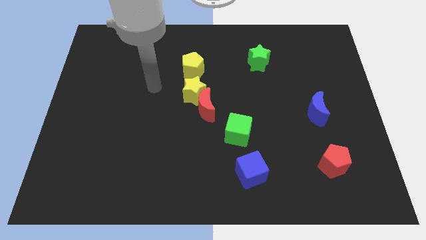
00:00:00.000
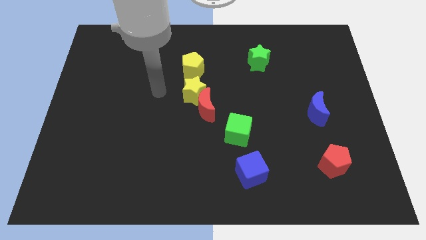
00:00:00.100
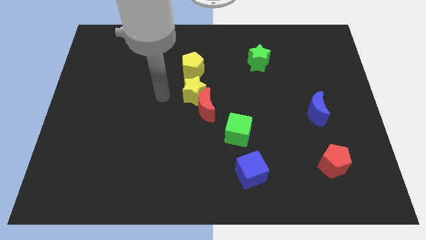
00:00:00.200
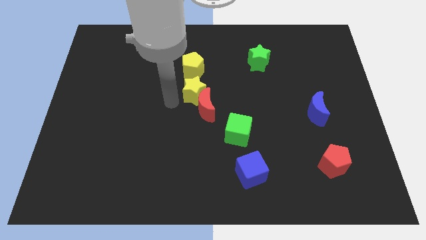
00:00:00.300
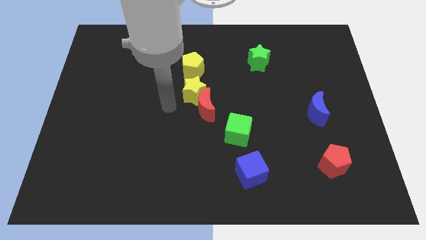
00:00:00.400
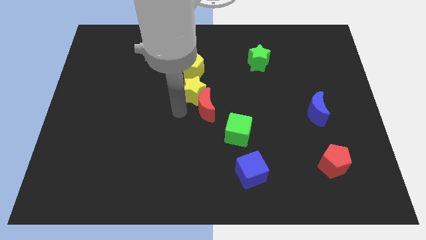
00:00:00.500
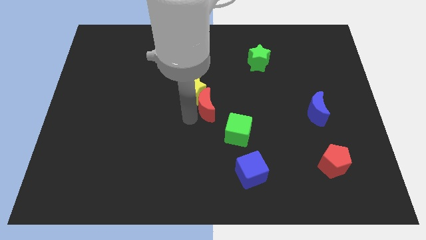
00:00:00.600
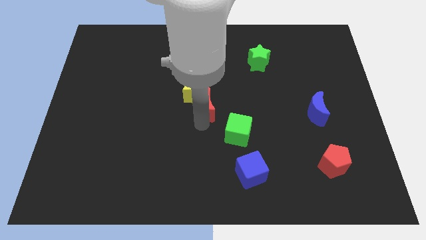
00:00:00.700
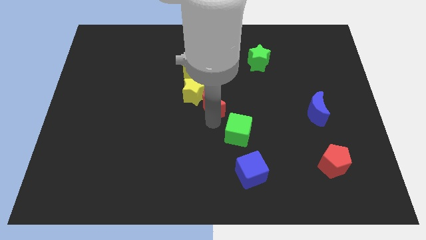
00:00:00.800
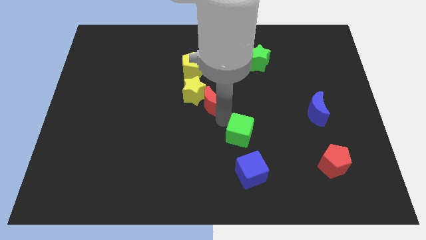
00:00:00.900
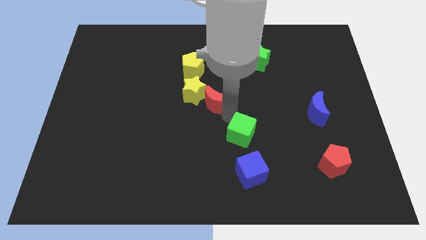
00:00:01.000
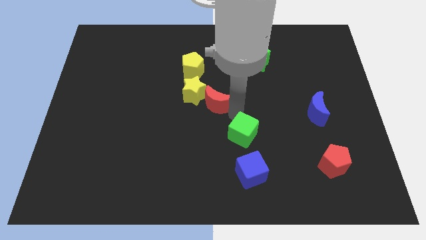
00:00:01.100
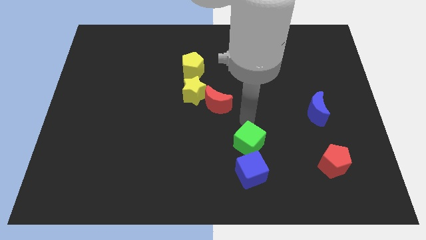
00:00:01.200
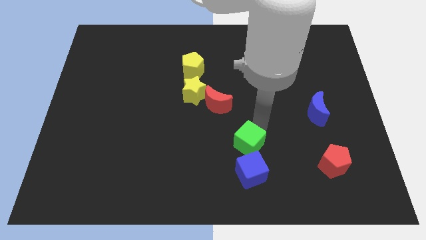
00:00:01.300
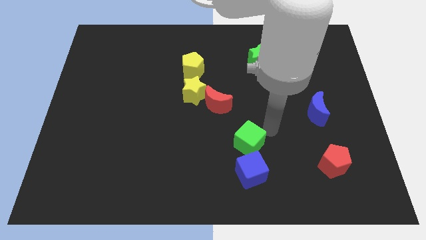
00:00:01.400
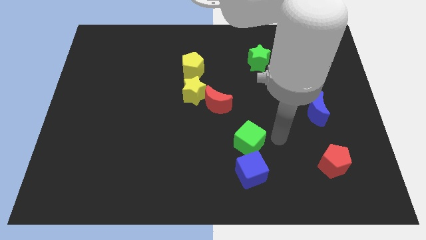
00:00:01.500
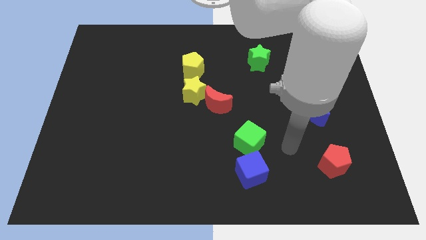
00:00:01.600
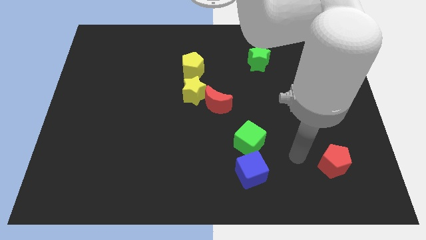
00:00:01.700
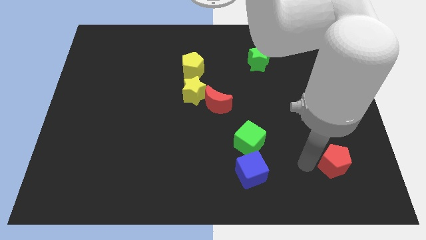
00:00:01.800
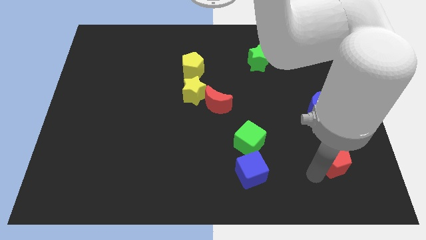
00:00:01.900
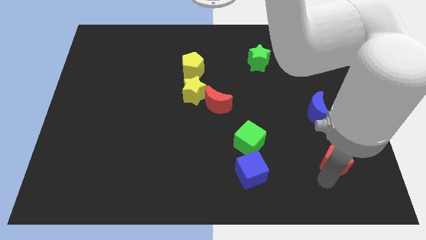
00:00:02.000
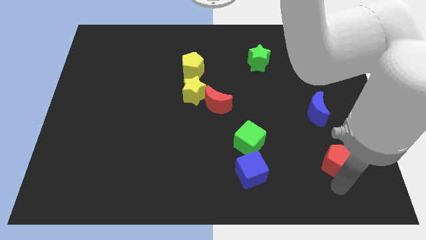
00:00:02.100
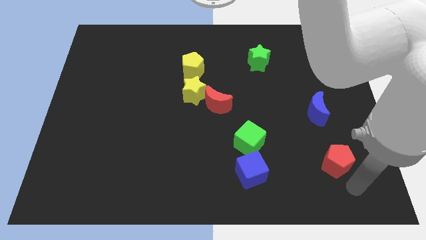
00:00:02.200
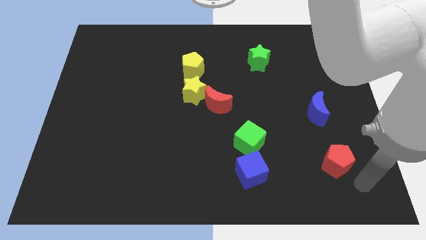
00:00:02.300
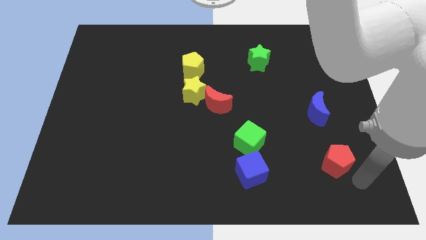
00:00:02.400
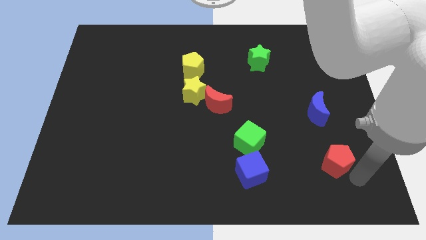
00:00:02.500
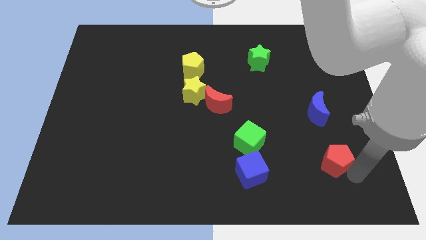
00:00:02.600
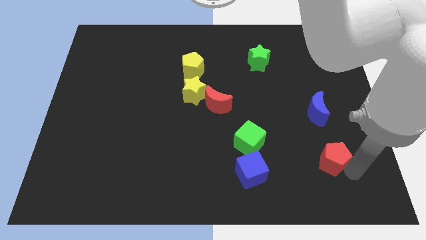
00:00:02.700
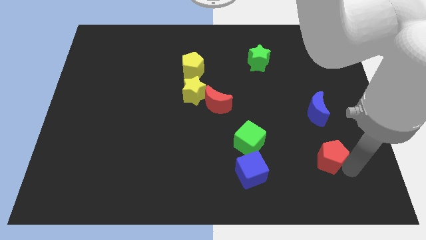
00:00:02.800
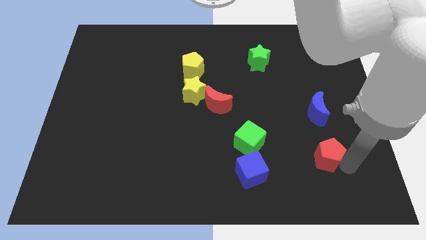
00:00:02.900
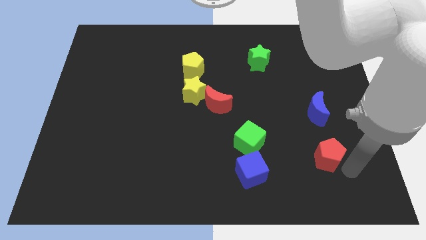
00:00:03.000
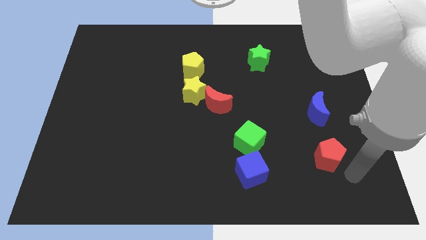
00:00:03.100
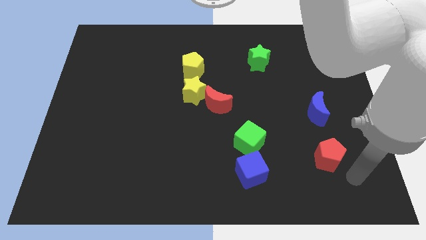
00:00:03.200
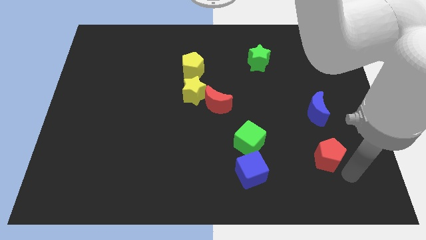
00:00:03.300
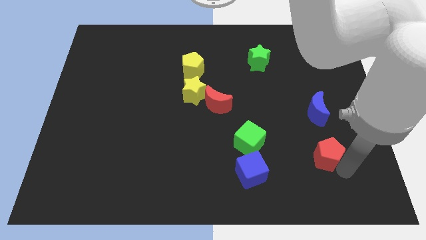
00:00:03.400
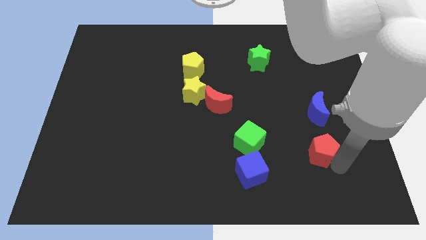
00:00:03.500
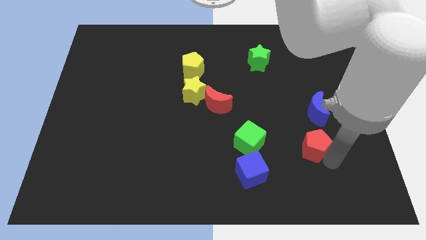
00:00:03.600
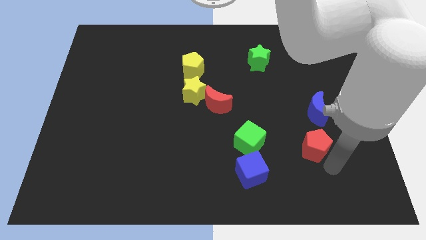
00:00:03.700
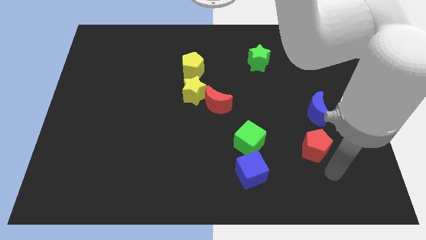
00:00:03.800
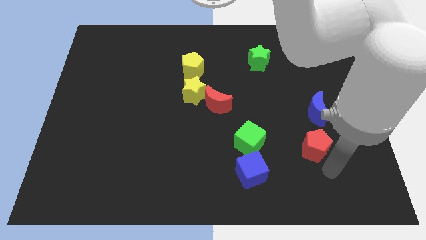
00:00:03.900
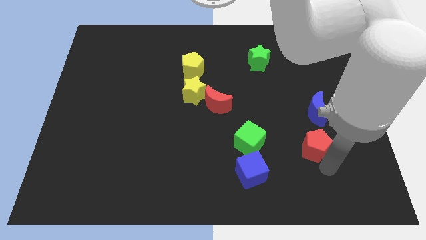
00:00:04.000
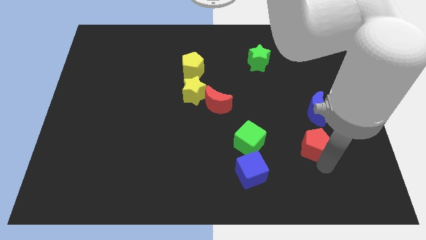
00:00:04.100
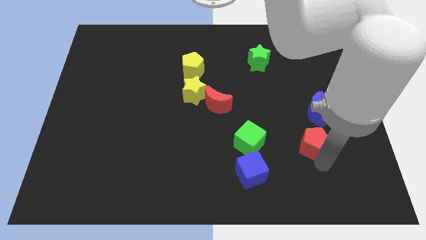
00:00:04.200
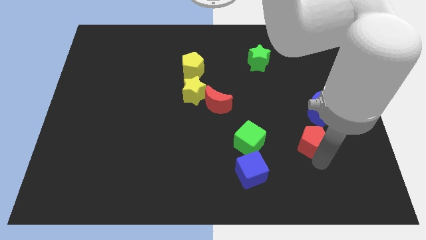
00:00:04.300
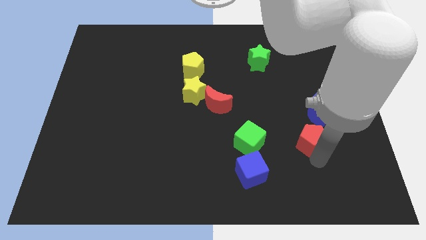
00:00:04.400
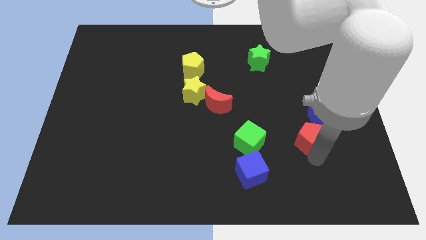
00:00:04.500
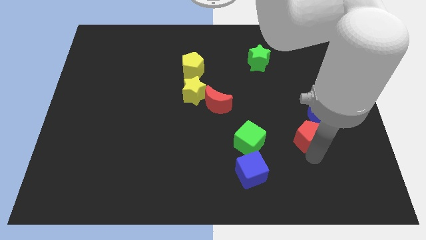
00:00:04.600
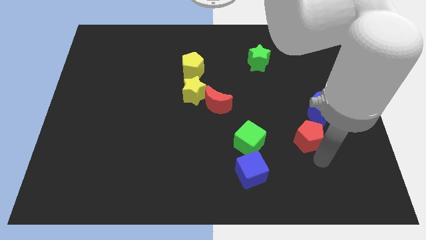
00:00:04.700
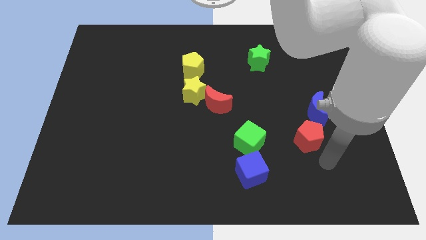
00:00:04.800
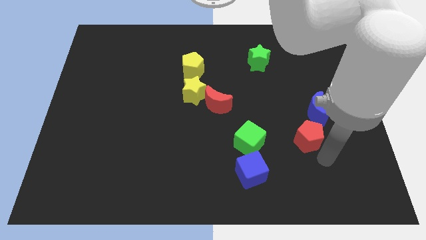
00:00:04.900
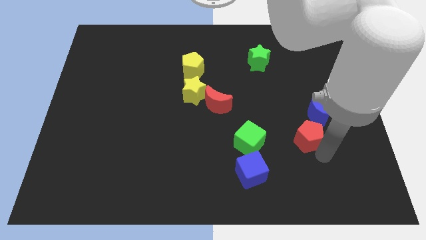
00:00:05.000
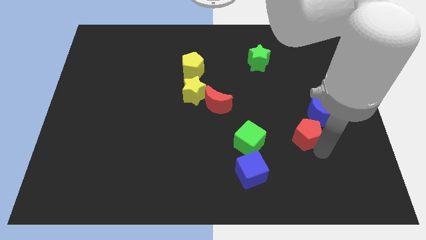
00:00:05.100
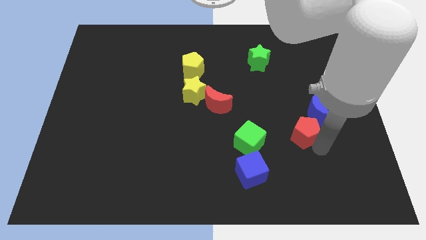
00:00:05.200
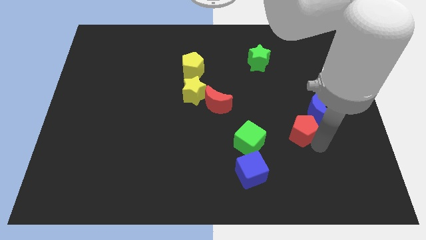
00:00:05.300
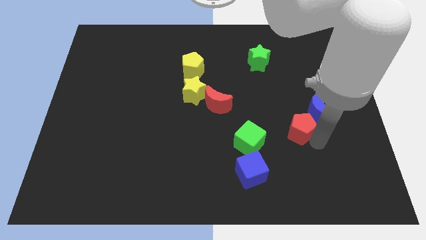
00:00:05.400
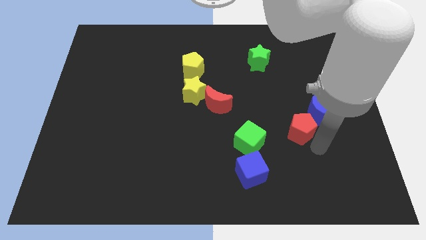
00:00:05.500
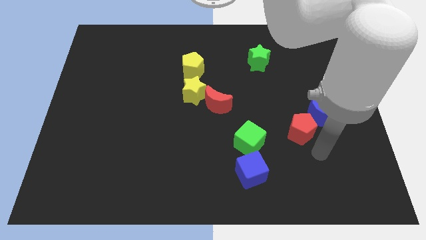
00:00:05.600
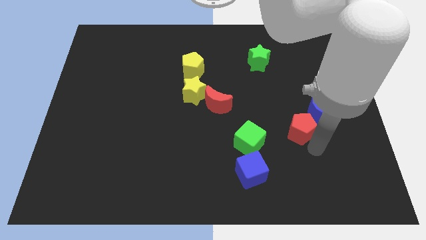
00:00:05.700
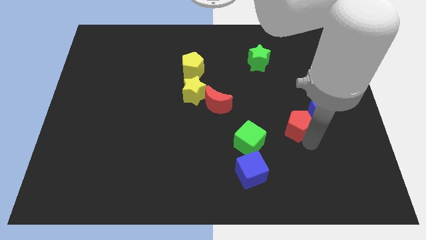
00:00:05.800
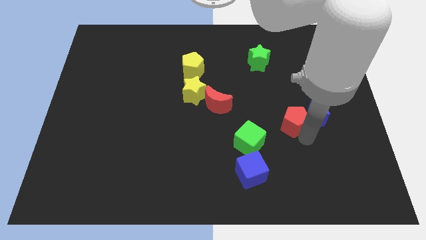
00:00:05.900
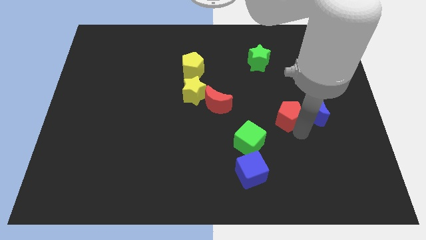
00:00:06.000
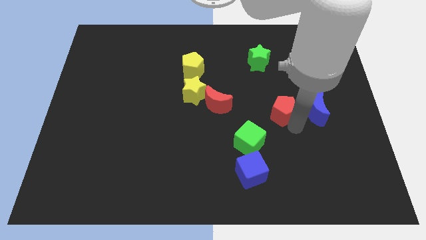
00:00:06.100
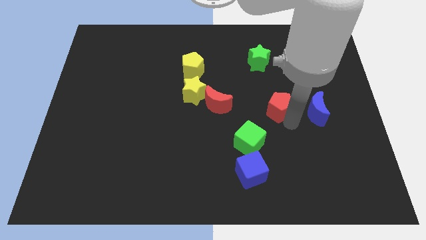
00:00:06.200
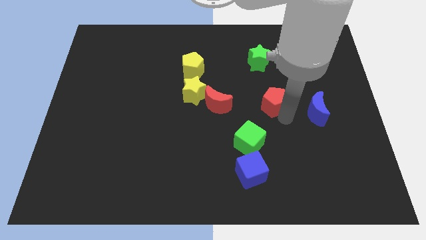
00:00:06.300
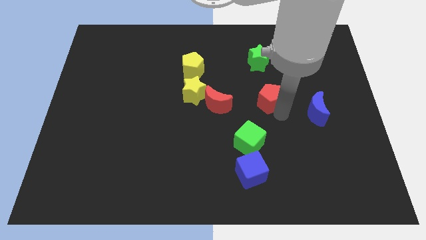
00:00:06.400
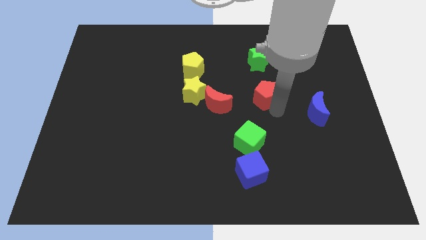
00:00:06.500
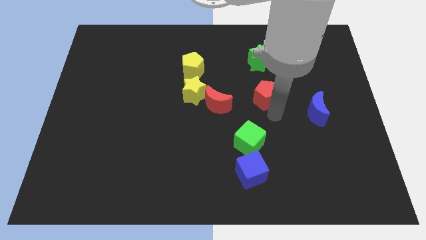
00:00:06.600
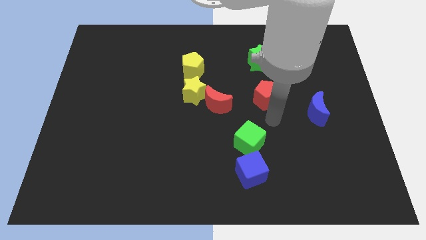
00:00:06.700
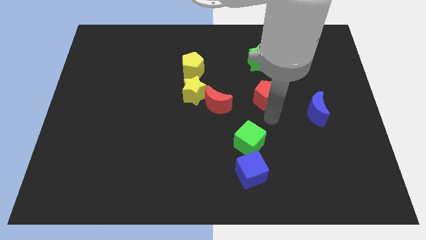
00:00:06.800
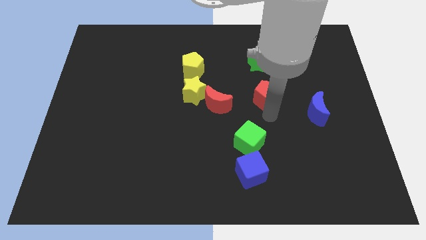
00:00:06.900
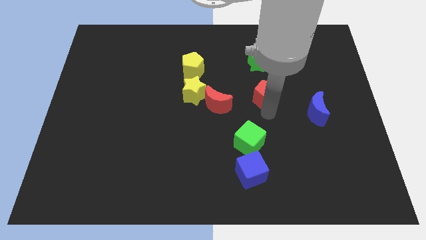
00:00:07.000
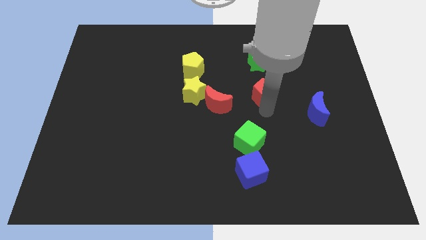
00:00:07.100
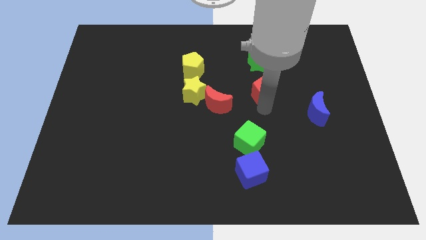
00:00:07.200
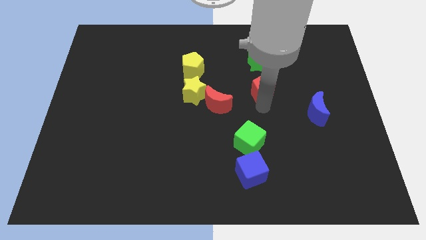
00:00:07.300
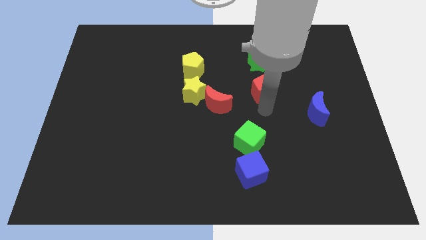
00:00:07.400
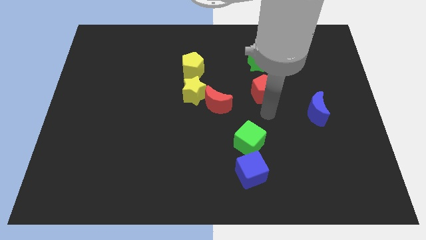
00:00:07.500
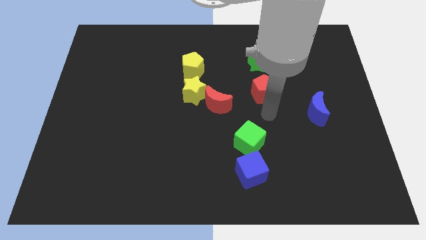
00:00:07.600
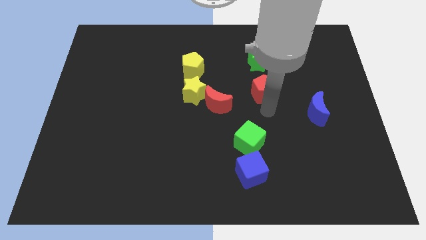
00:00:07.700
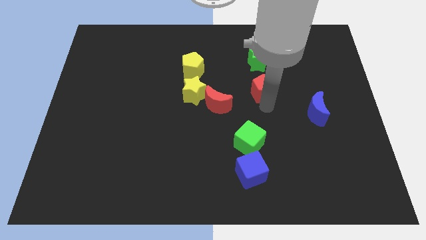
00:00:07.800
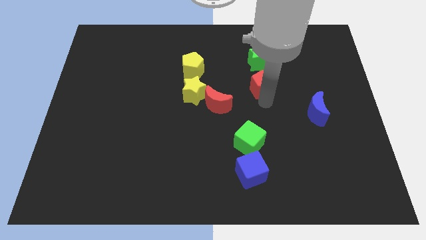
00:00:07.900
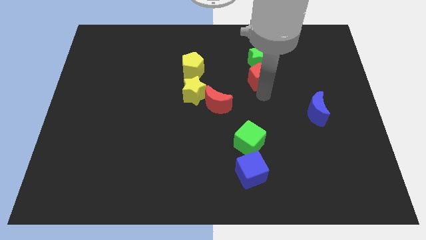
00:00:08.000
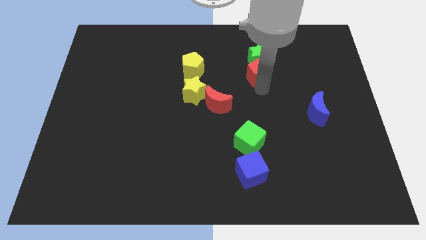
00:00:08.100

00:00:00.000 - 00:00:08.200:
put the red pentagon close to the green star
